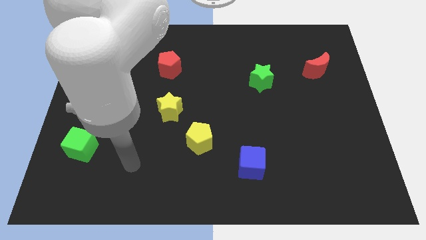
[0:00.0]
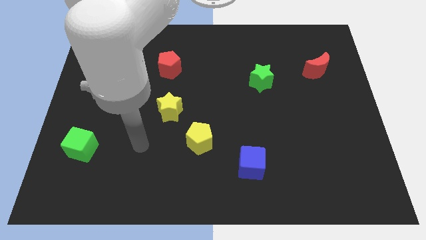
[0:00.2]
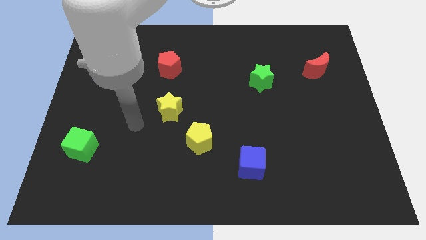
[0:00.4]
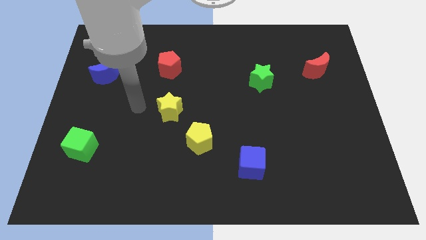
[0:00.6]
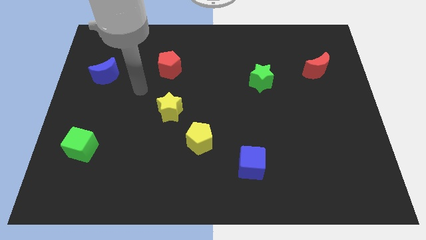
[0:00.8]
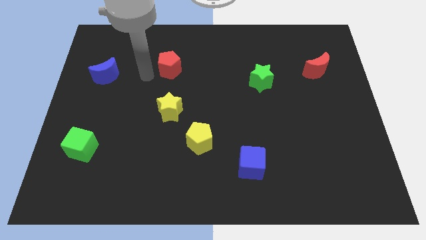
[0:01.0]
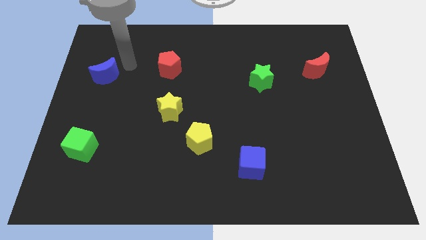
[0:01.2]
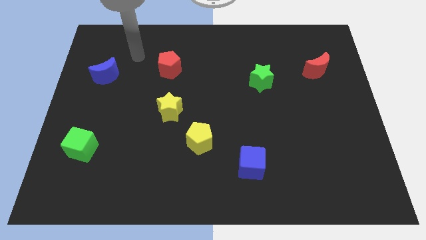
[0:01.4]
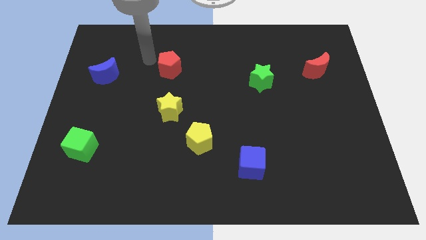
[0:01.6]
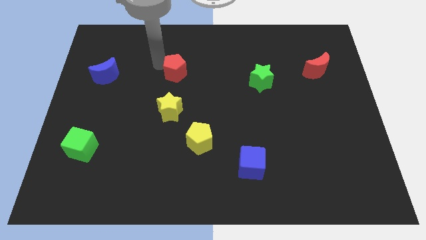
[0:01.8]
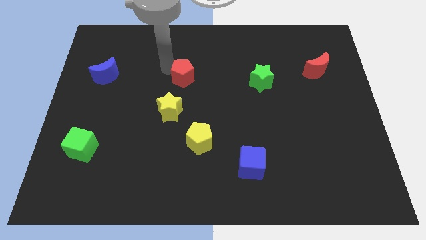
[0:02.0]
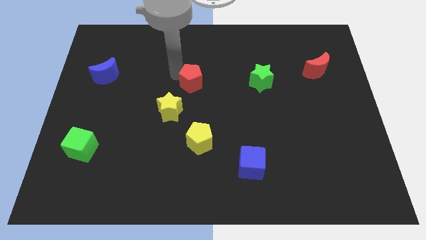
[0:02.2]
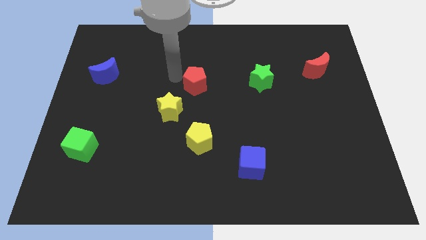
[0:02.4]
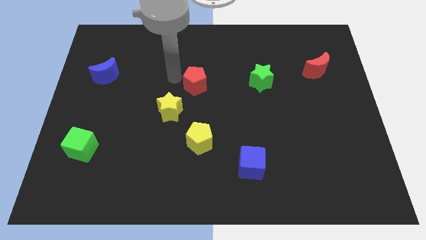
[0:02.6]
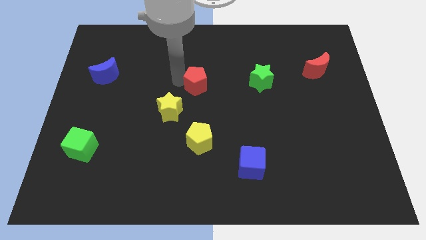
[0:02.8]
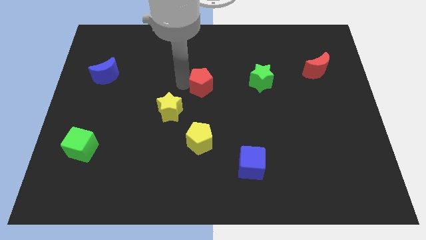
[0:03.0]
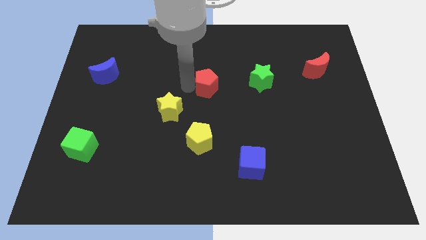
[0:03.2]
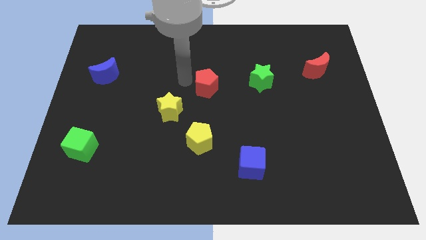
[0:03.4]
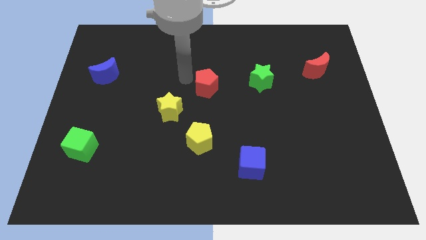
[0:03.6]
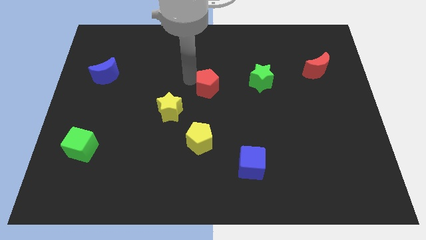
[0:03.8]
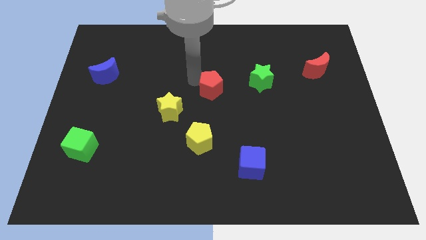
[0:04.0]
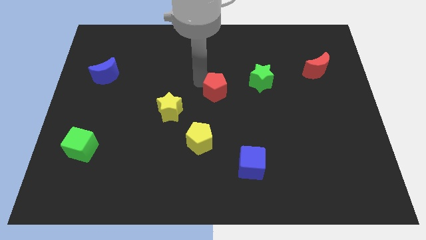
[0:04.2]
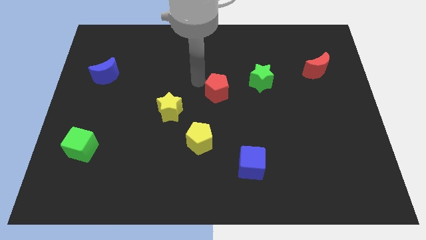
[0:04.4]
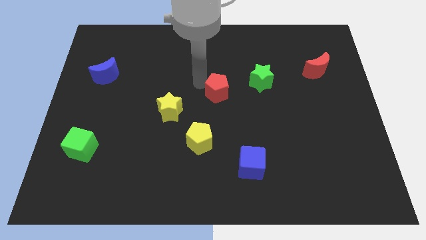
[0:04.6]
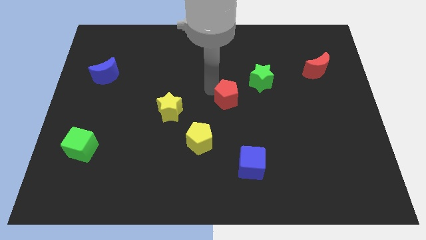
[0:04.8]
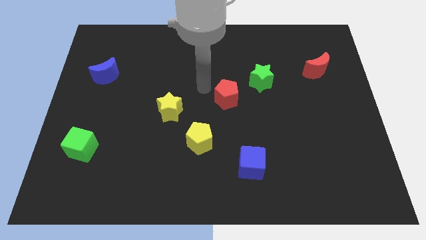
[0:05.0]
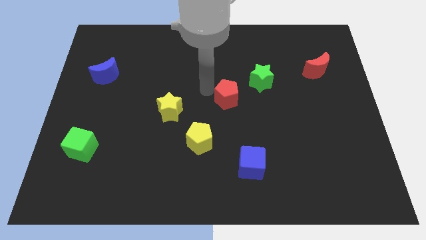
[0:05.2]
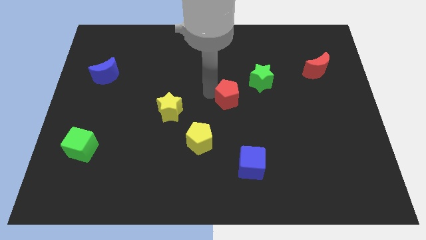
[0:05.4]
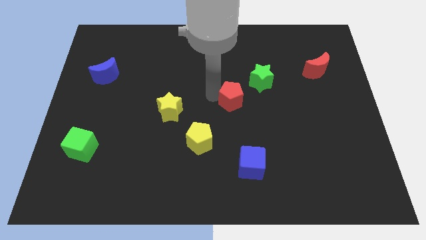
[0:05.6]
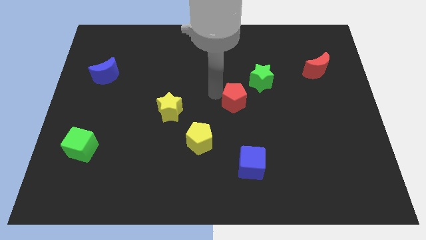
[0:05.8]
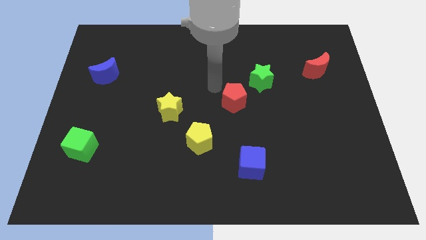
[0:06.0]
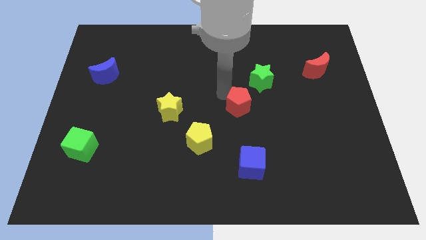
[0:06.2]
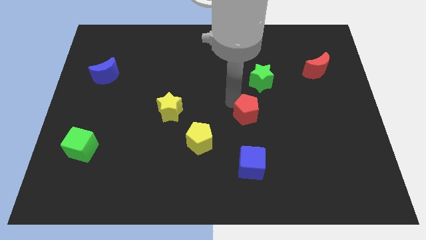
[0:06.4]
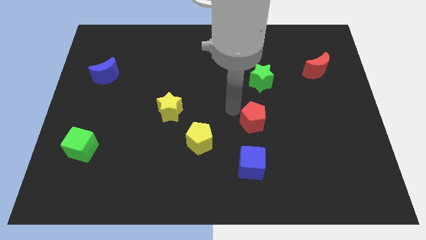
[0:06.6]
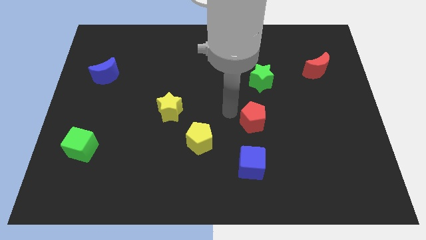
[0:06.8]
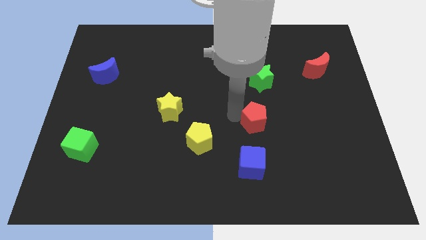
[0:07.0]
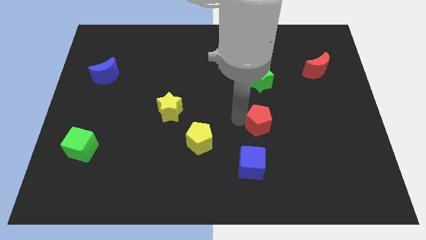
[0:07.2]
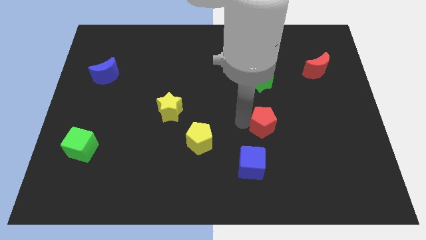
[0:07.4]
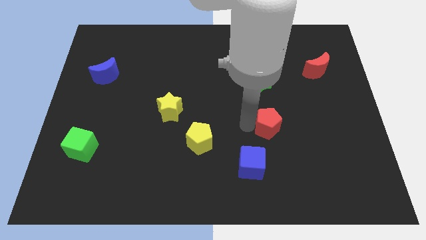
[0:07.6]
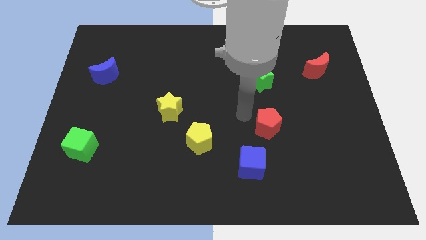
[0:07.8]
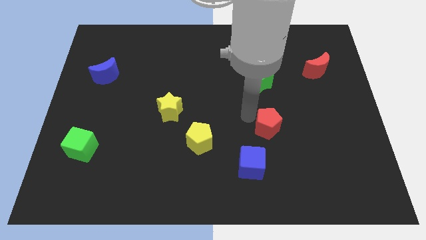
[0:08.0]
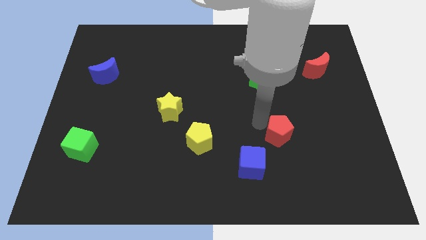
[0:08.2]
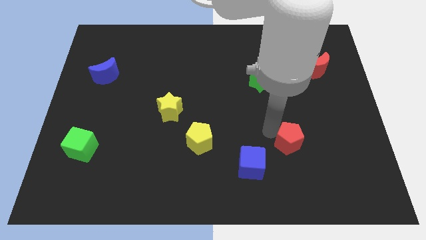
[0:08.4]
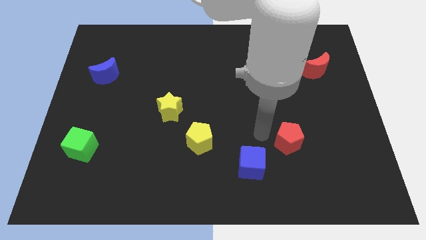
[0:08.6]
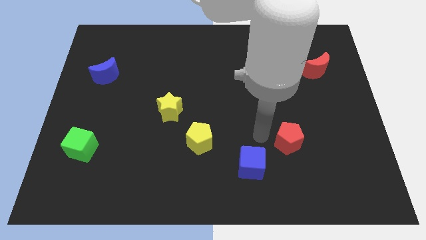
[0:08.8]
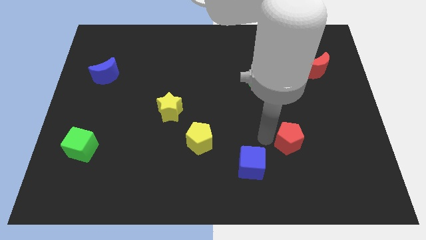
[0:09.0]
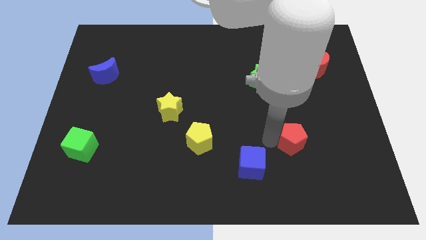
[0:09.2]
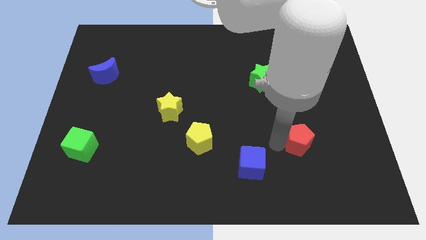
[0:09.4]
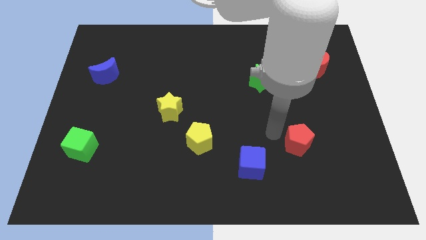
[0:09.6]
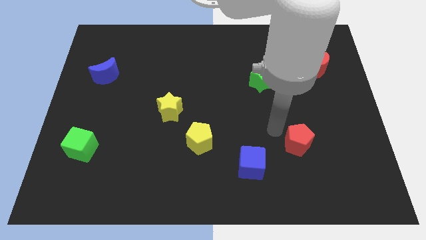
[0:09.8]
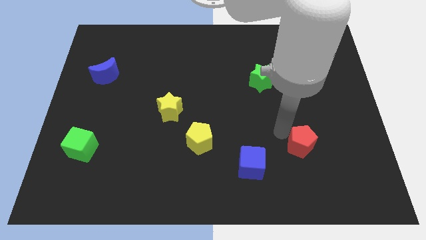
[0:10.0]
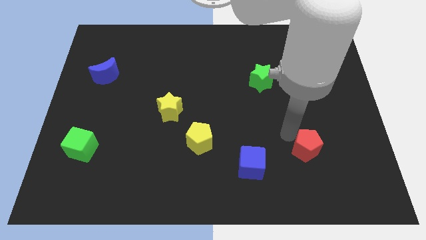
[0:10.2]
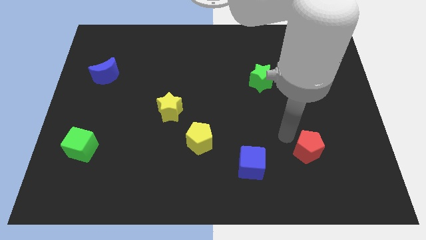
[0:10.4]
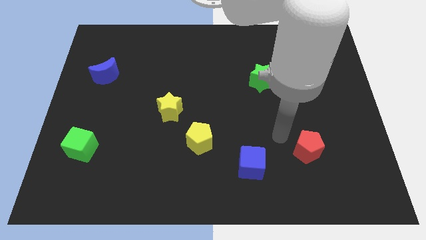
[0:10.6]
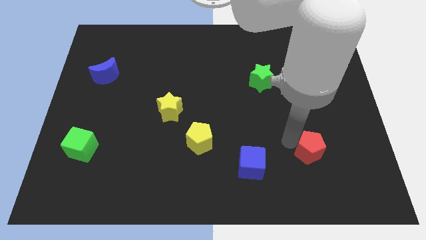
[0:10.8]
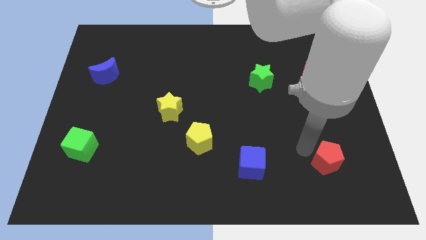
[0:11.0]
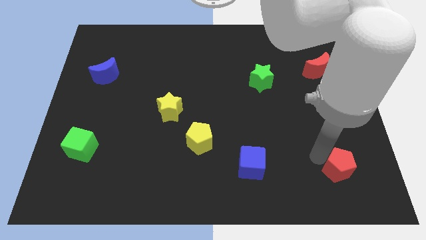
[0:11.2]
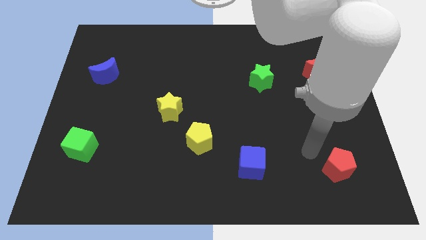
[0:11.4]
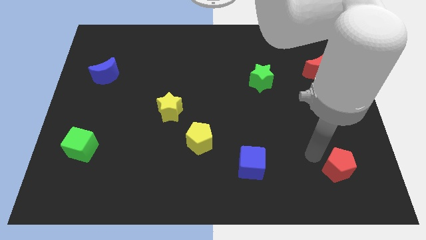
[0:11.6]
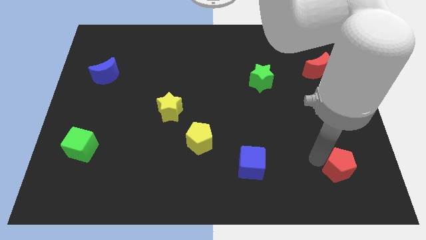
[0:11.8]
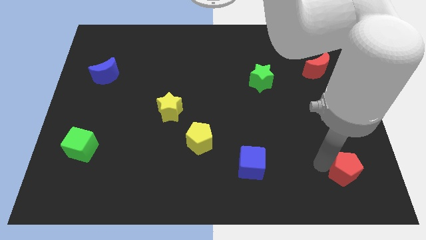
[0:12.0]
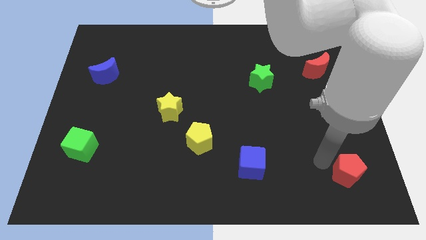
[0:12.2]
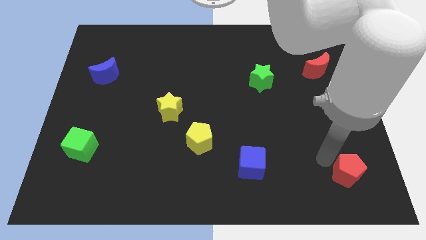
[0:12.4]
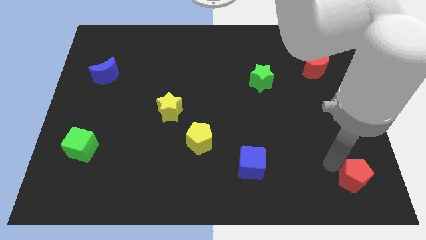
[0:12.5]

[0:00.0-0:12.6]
move the red pentagon to the bottom right of the board
